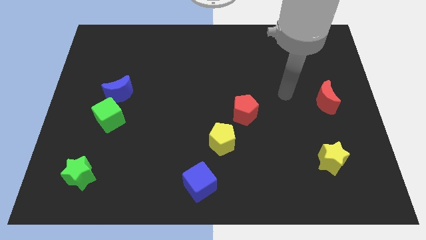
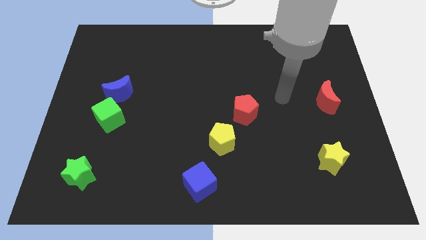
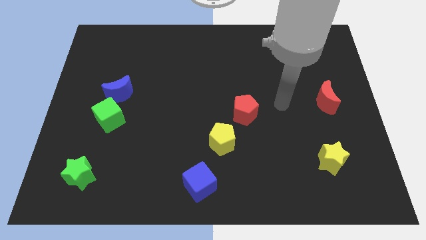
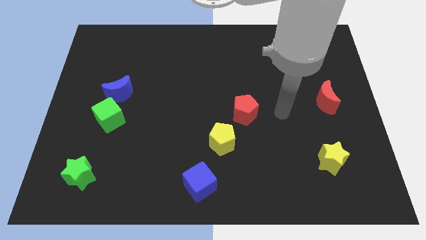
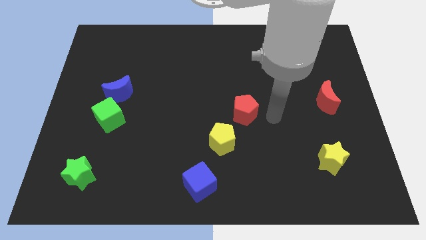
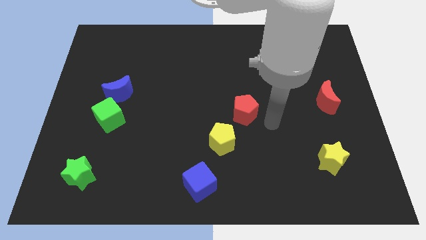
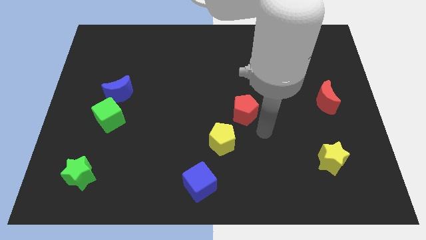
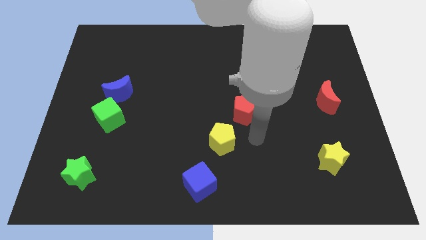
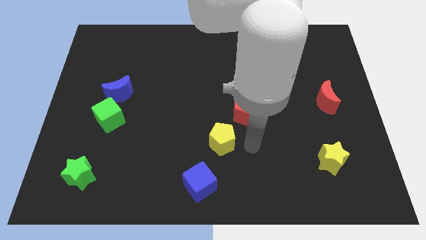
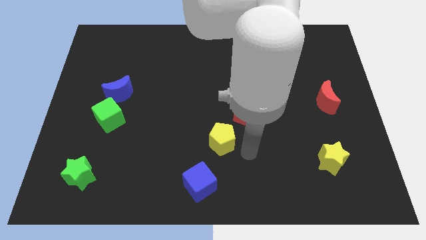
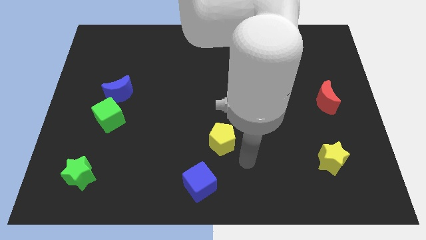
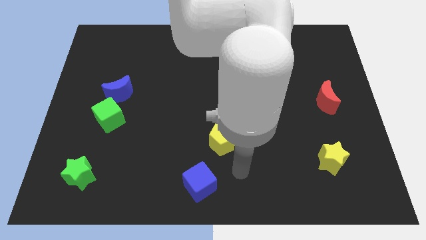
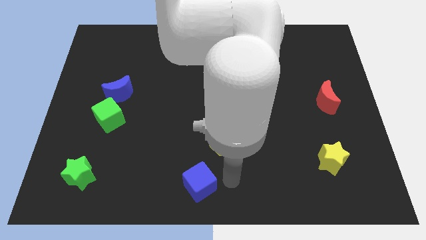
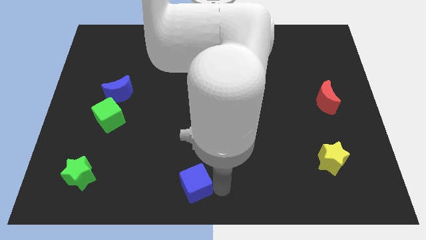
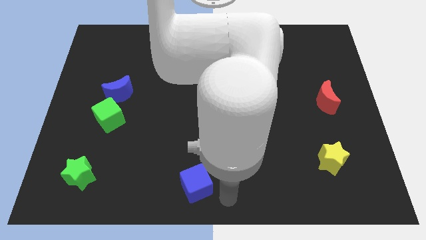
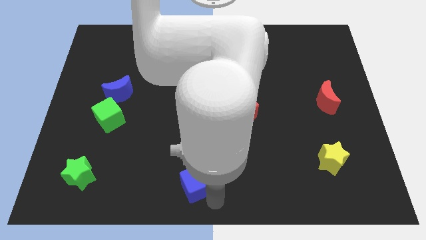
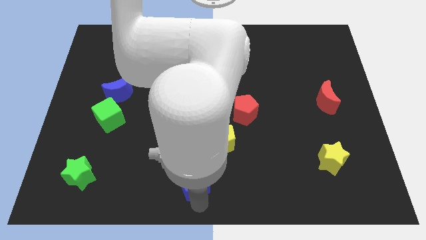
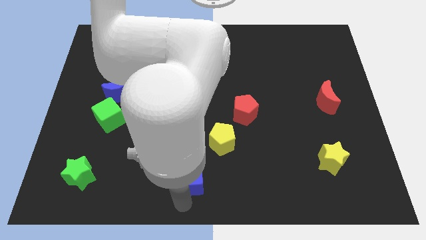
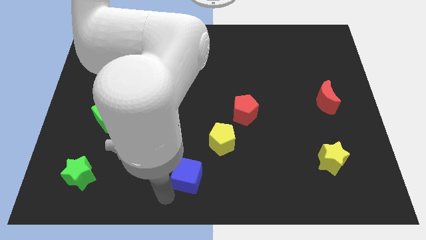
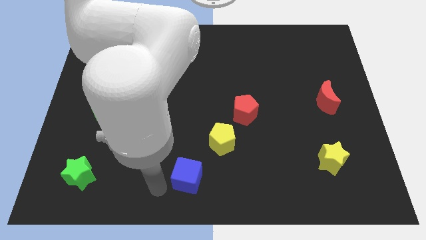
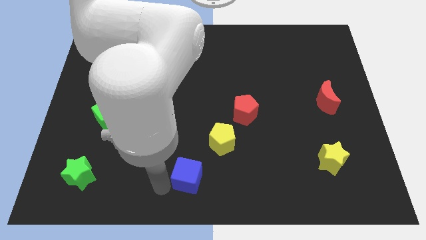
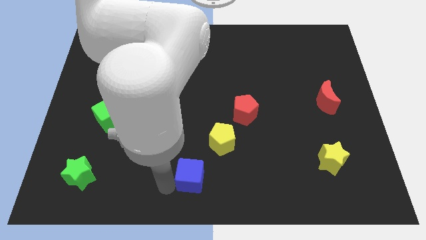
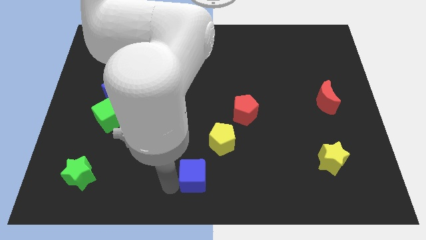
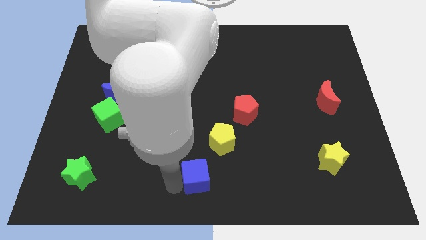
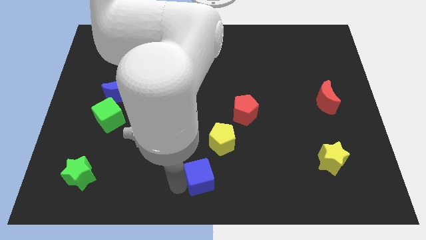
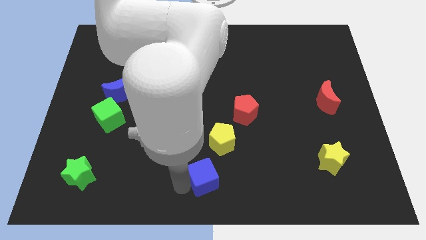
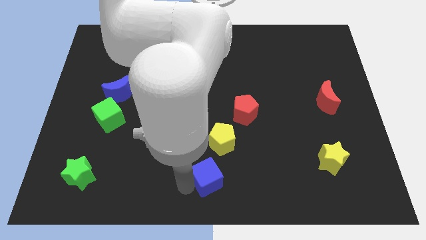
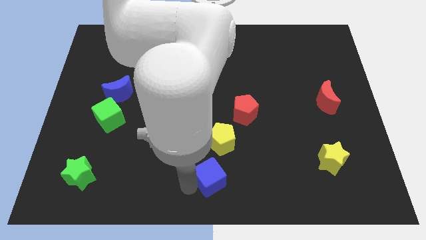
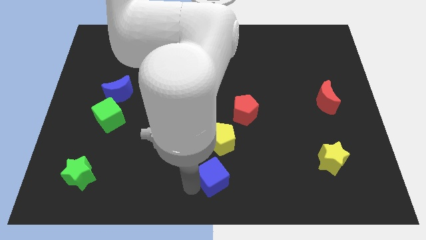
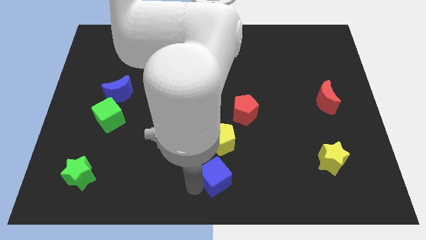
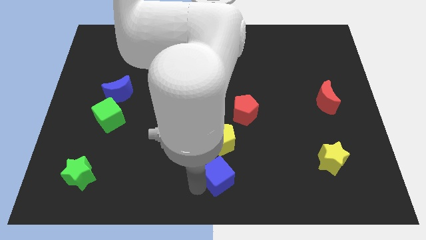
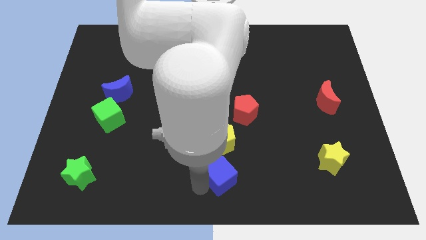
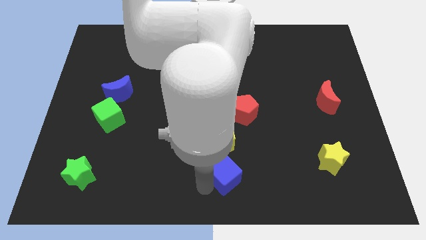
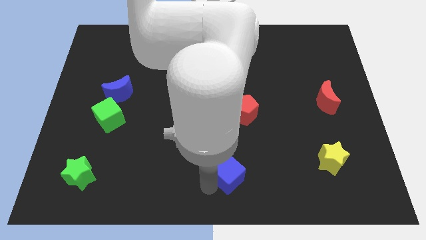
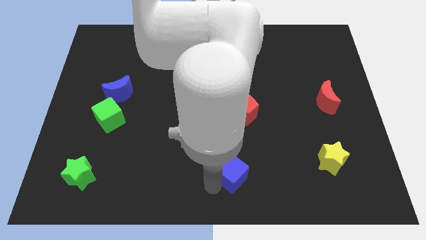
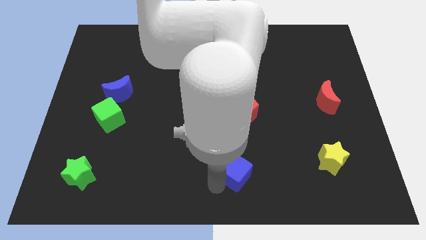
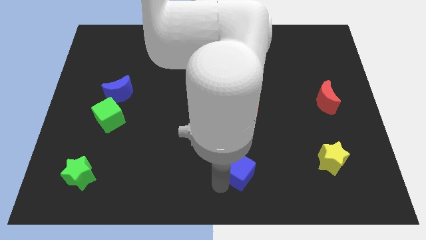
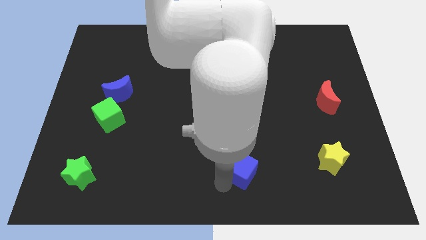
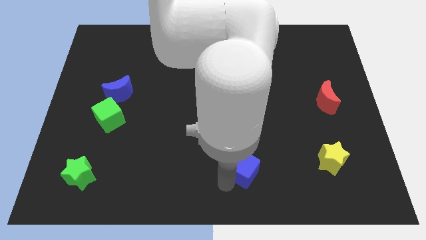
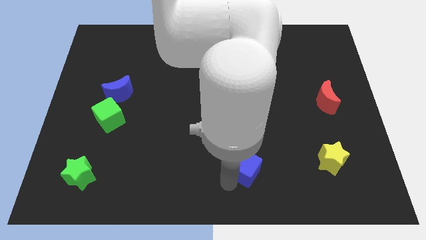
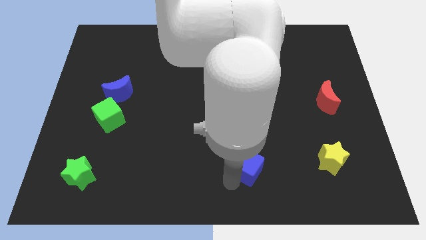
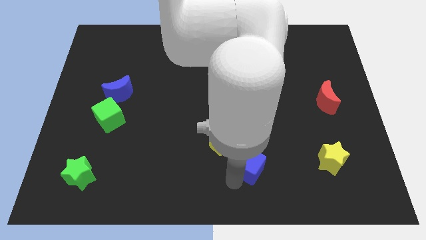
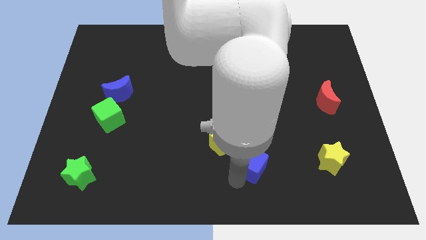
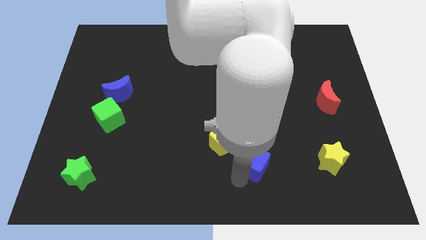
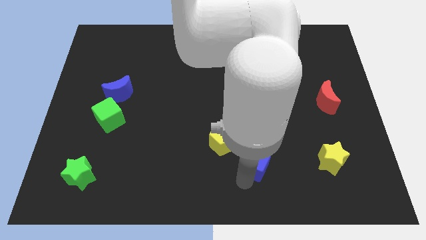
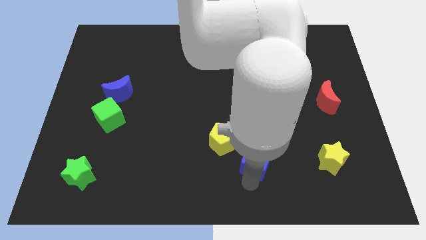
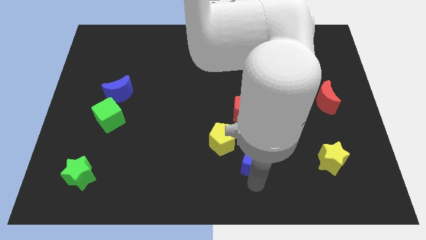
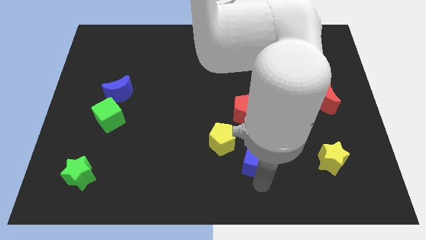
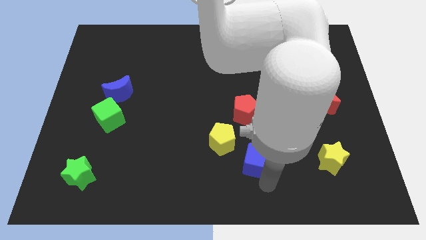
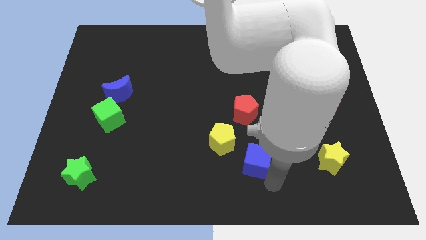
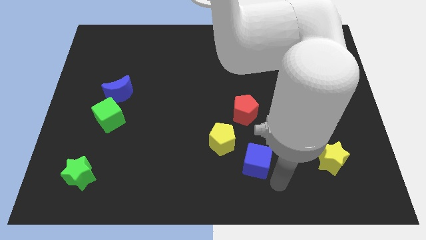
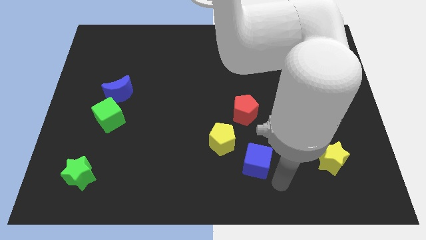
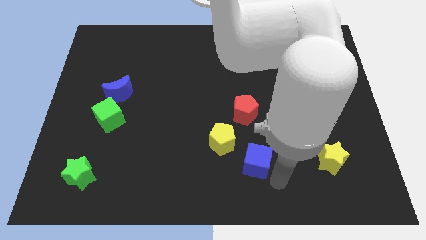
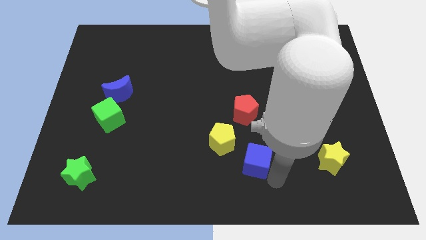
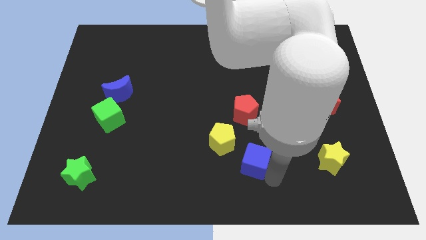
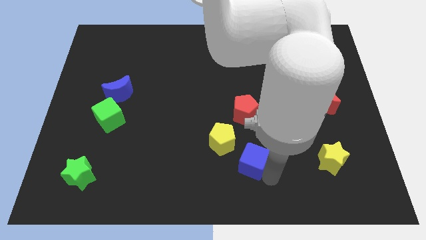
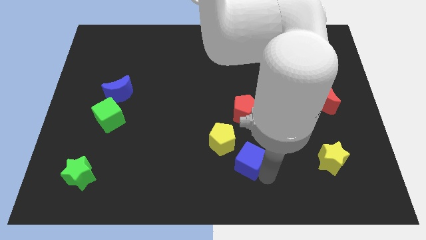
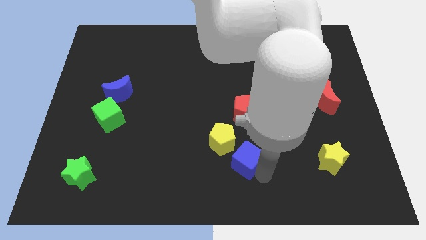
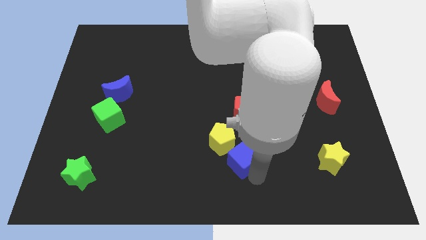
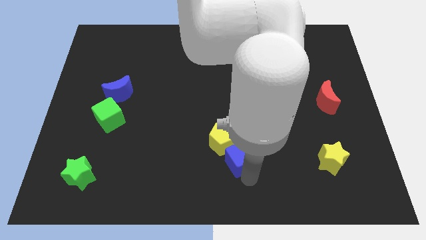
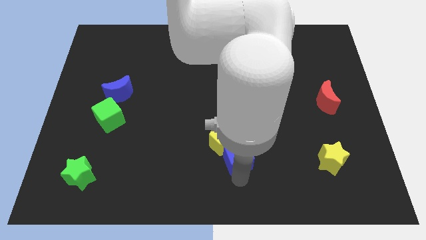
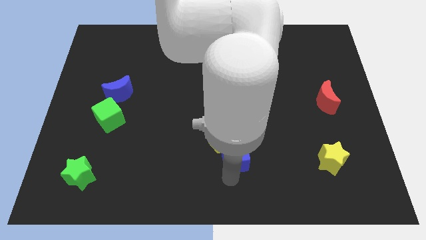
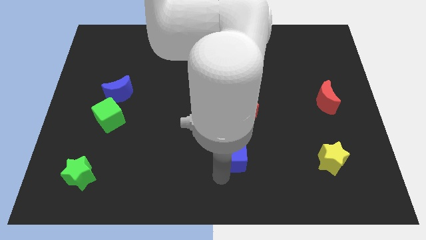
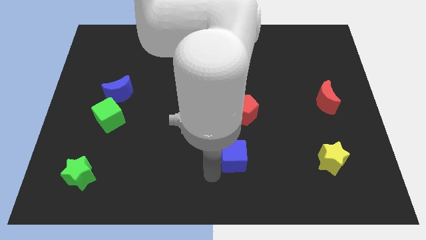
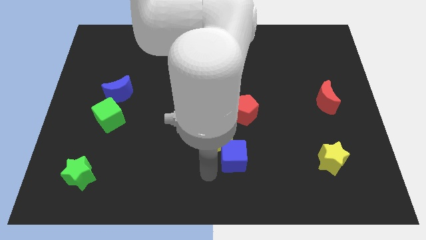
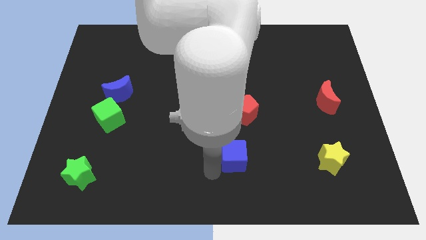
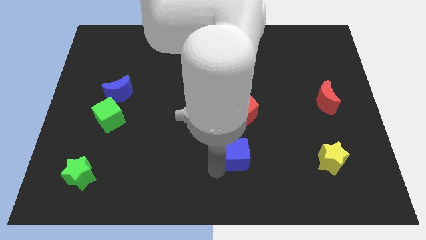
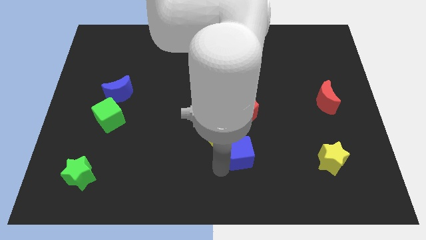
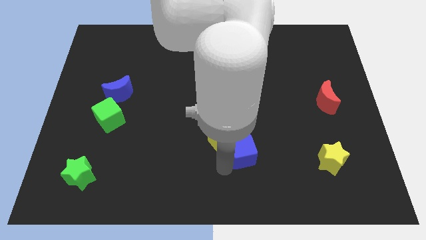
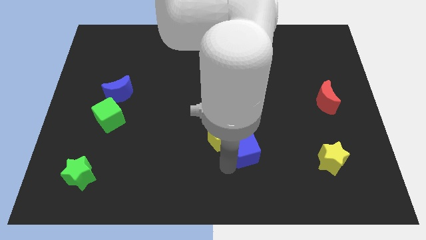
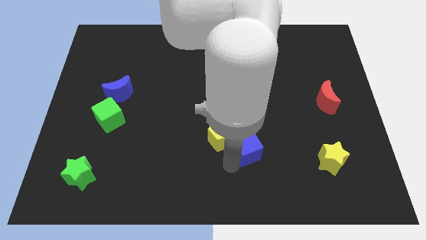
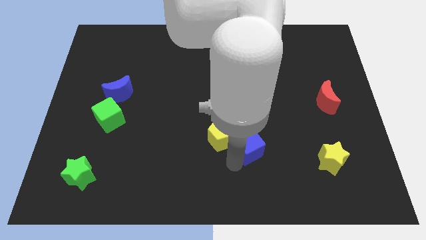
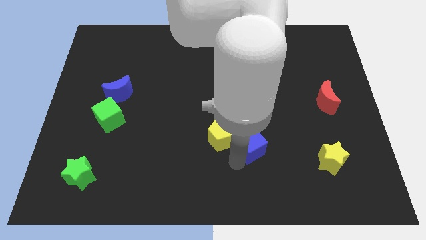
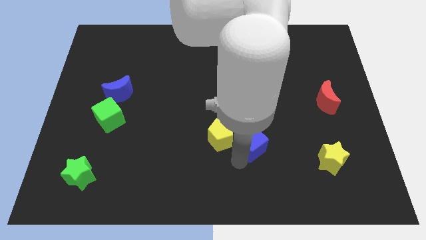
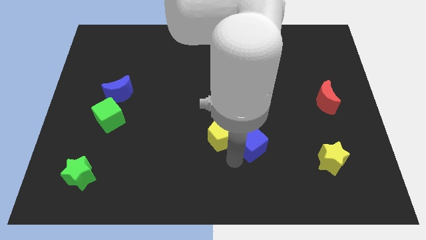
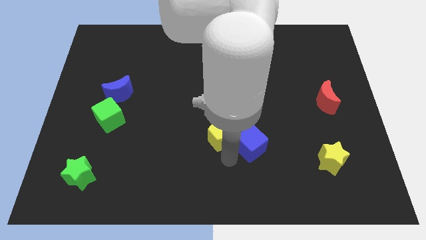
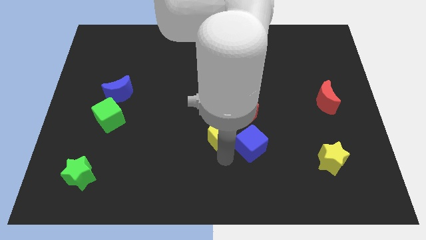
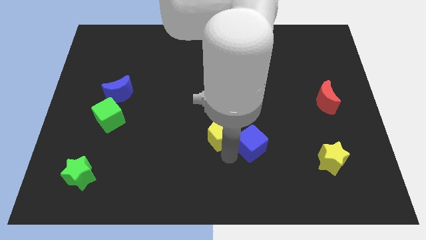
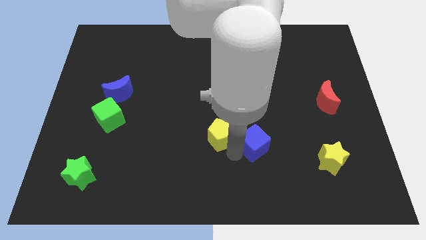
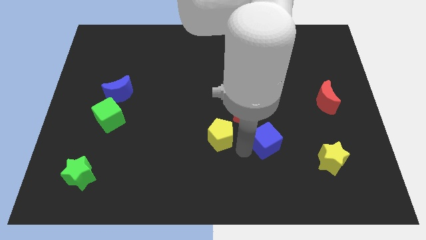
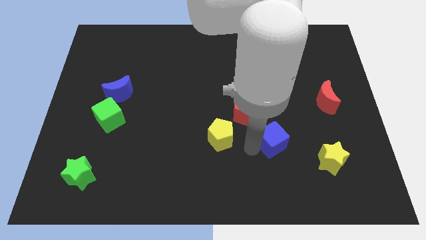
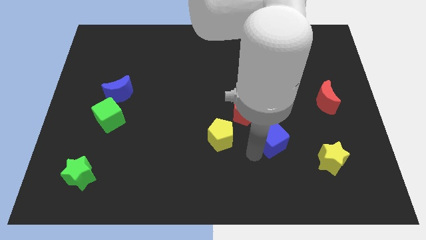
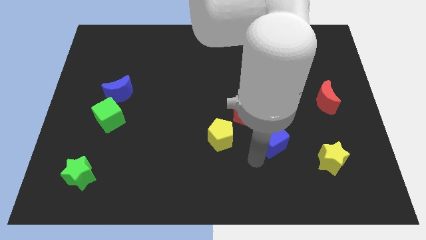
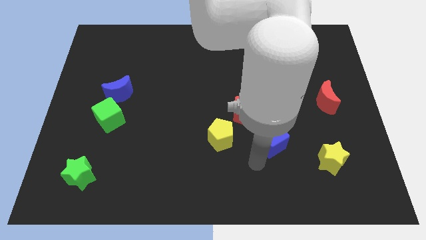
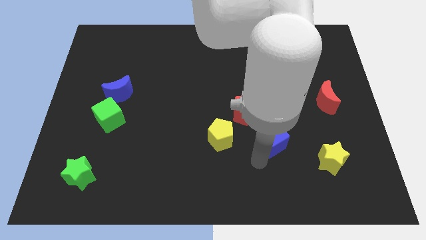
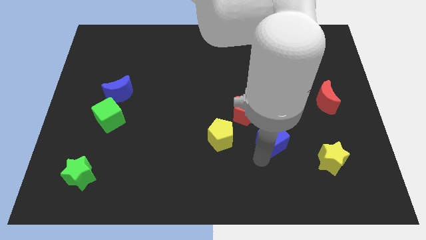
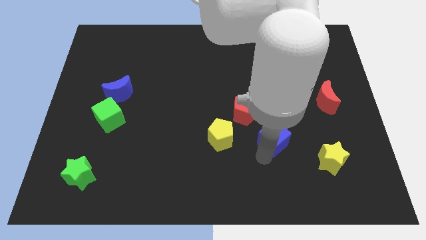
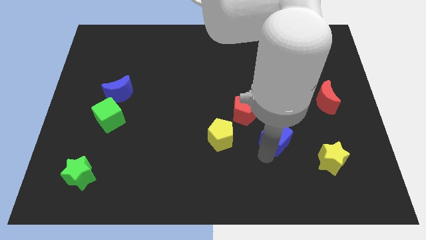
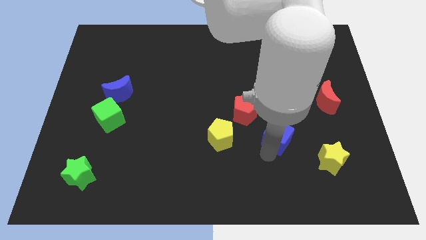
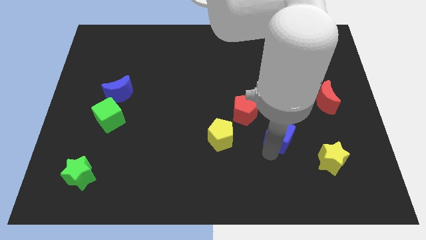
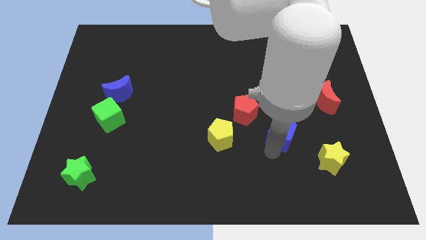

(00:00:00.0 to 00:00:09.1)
push the blue cube diagonally upwards and to the right
